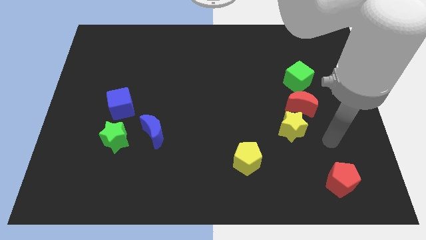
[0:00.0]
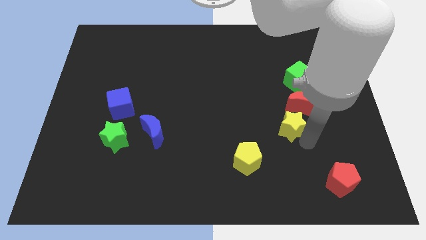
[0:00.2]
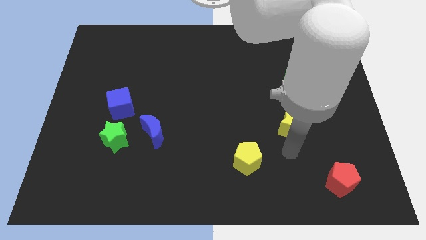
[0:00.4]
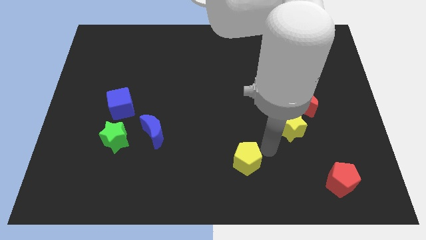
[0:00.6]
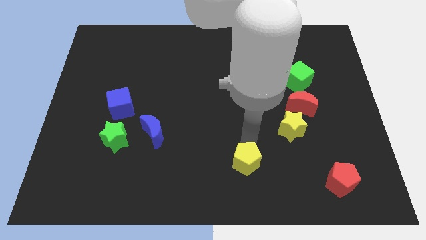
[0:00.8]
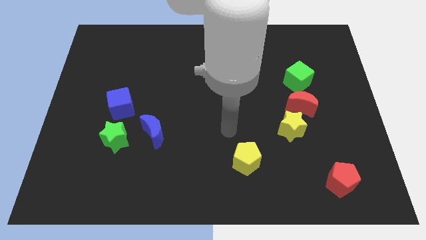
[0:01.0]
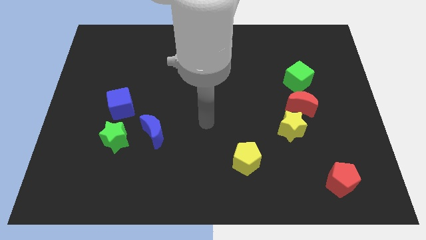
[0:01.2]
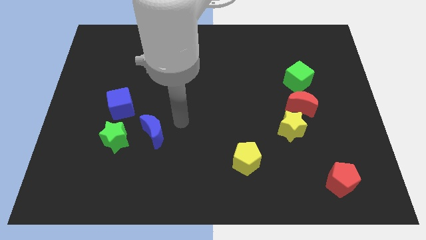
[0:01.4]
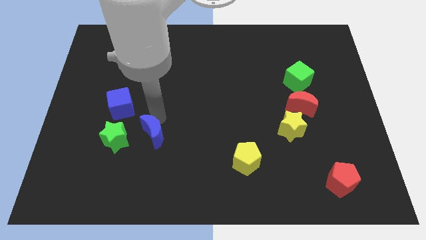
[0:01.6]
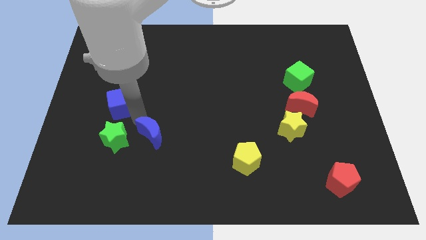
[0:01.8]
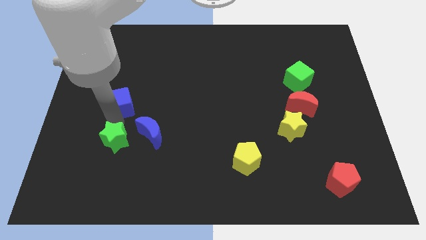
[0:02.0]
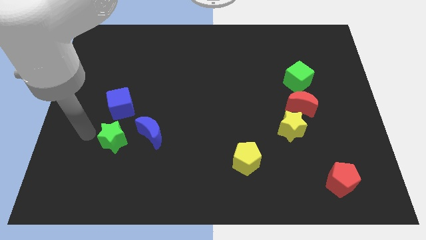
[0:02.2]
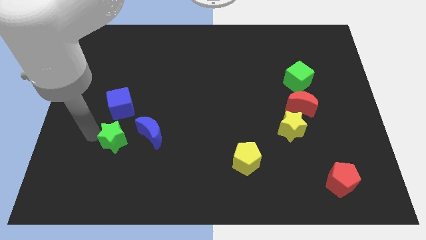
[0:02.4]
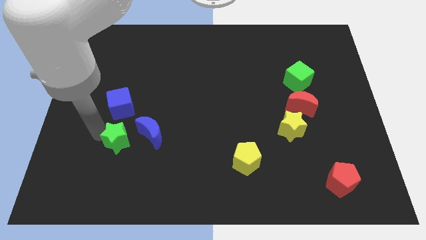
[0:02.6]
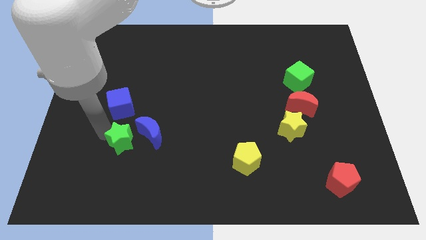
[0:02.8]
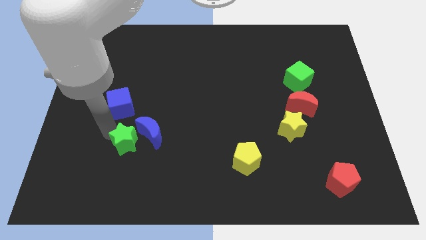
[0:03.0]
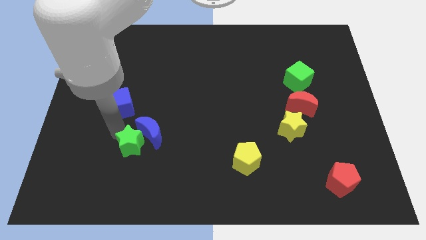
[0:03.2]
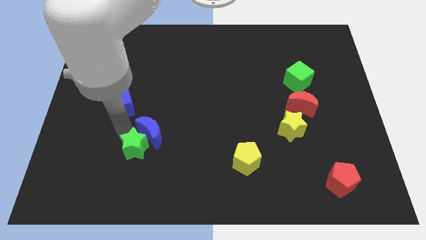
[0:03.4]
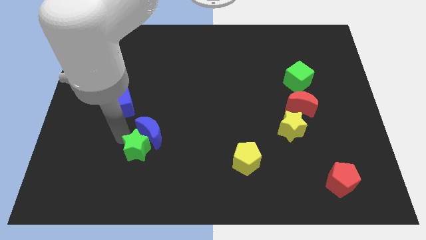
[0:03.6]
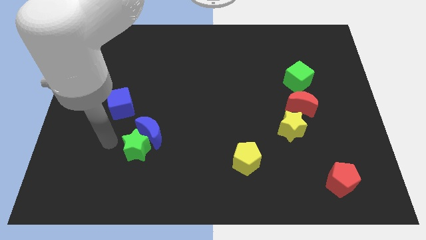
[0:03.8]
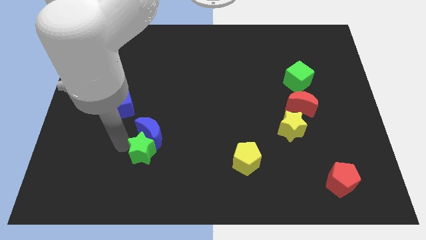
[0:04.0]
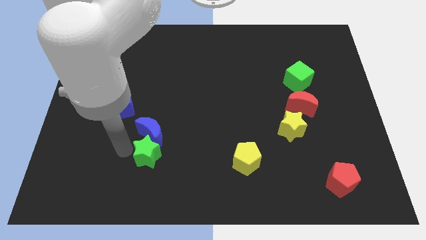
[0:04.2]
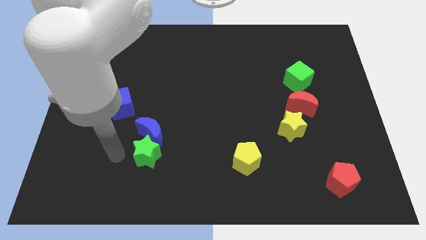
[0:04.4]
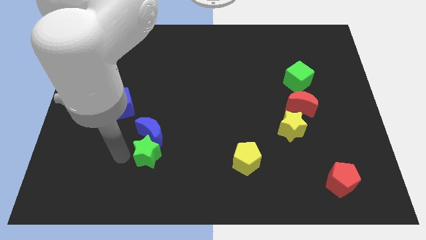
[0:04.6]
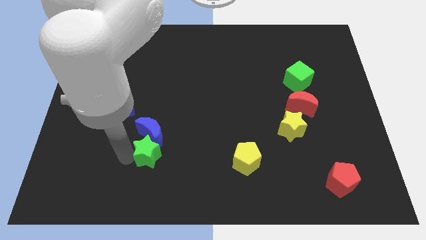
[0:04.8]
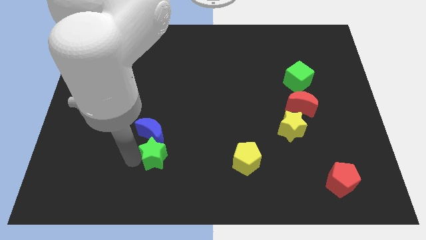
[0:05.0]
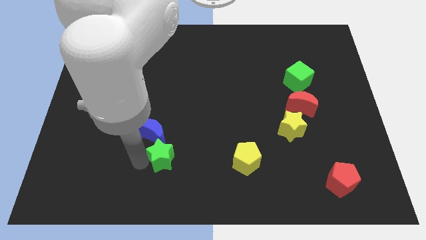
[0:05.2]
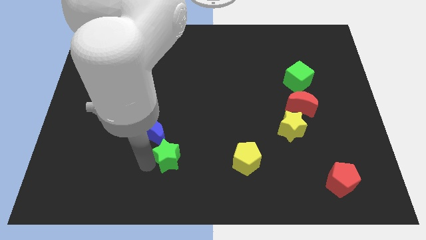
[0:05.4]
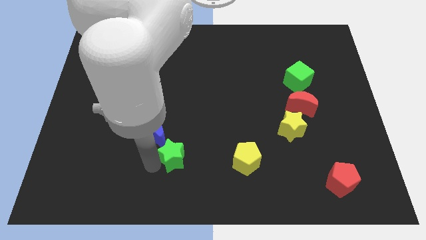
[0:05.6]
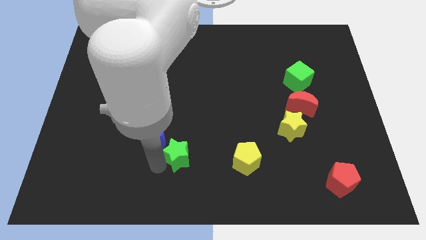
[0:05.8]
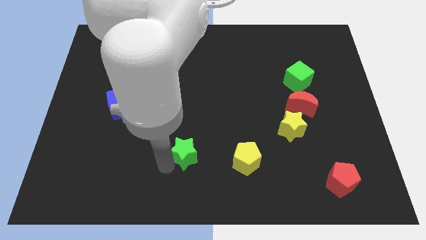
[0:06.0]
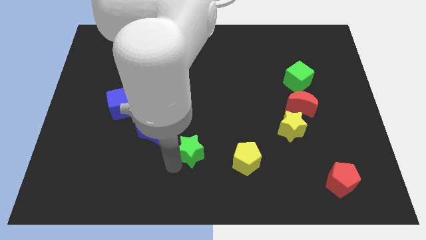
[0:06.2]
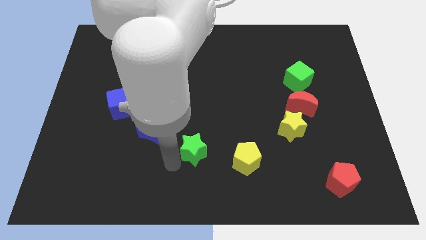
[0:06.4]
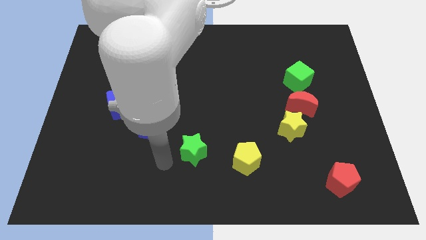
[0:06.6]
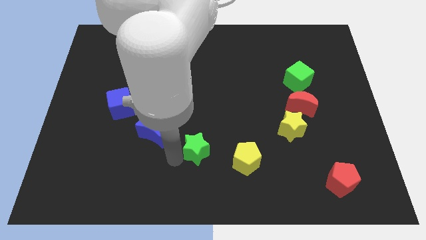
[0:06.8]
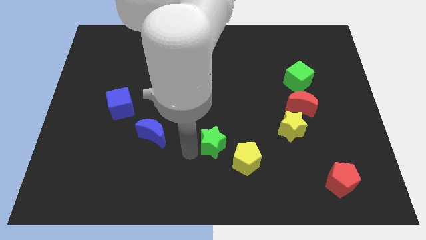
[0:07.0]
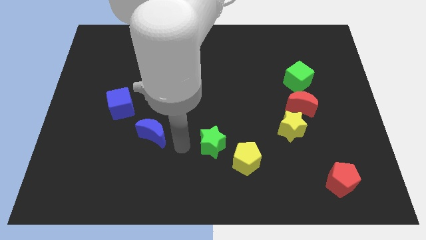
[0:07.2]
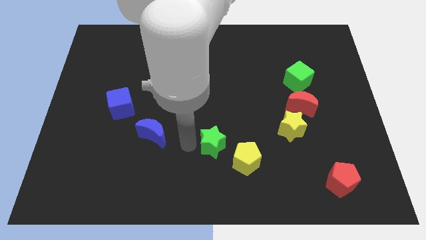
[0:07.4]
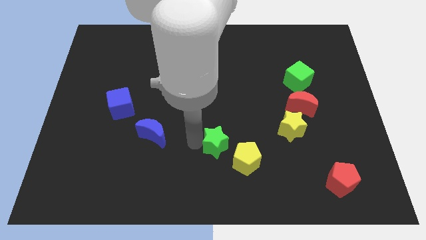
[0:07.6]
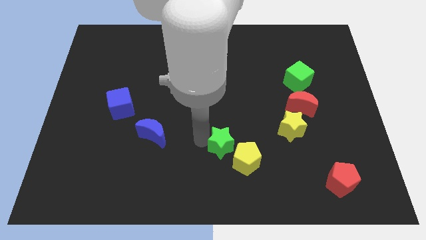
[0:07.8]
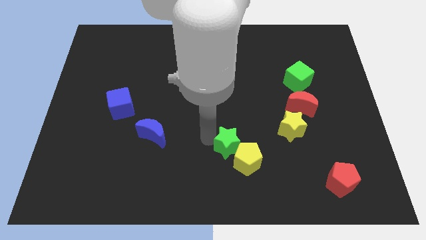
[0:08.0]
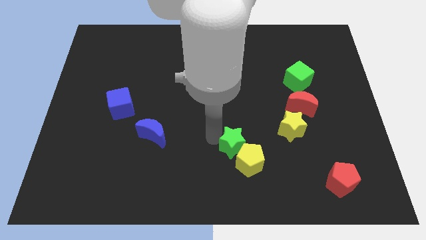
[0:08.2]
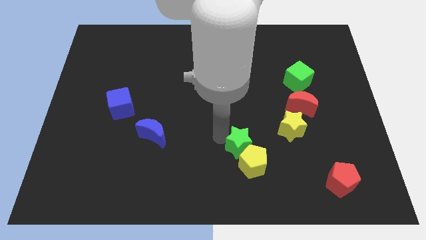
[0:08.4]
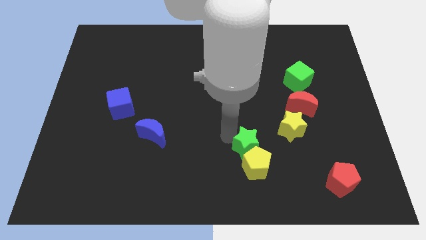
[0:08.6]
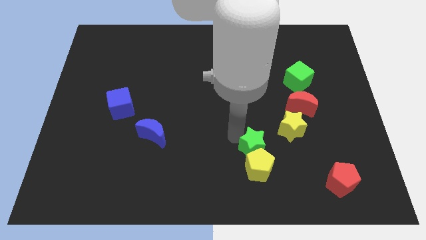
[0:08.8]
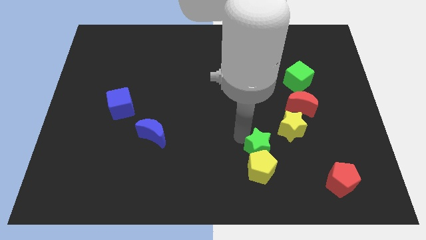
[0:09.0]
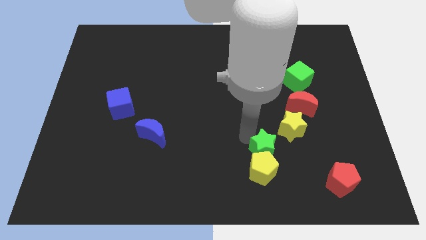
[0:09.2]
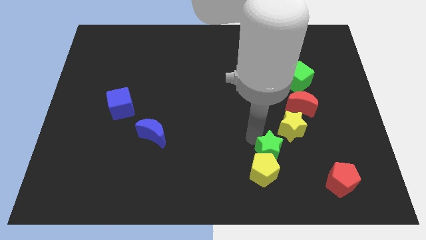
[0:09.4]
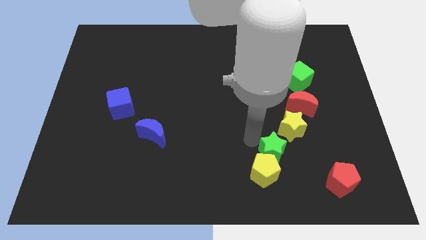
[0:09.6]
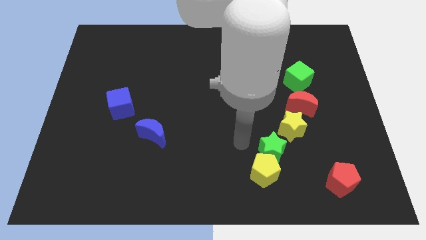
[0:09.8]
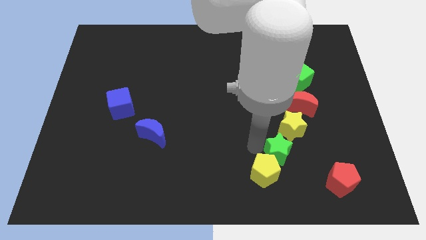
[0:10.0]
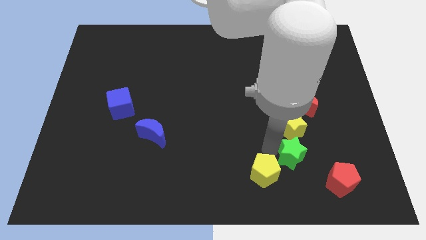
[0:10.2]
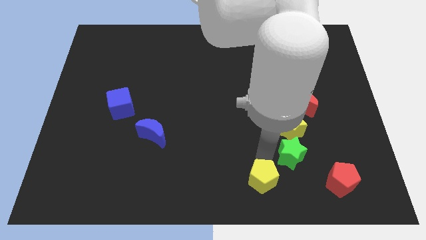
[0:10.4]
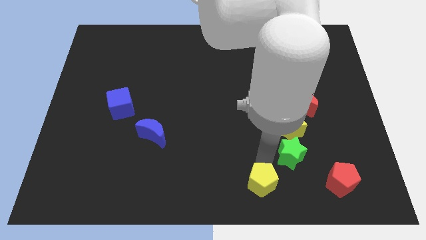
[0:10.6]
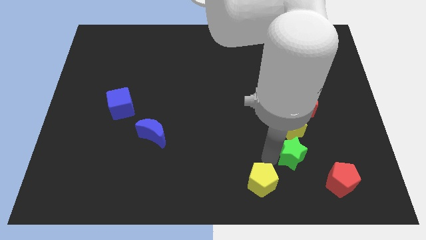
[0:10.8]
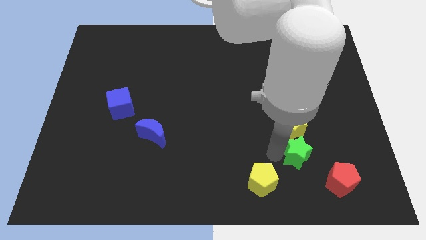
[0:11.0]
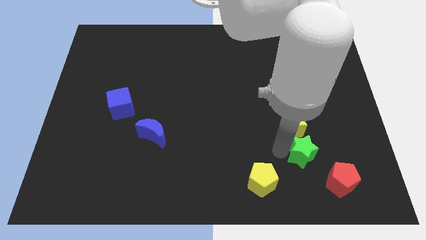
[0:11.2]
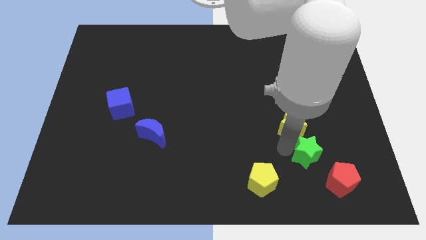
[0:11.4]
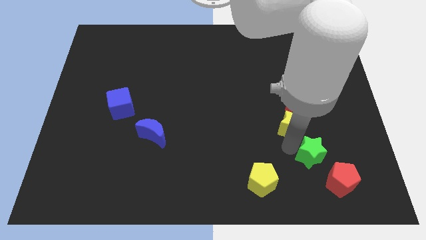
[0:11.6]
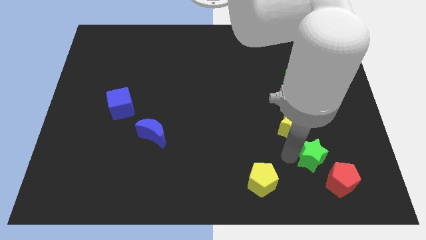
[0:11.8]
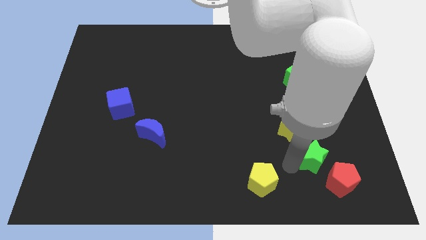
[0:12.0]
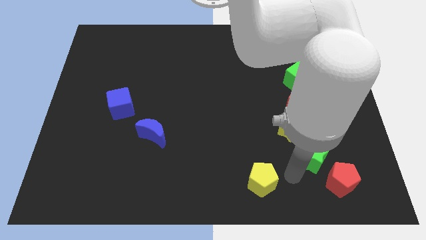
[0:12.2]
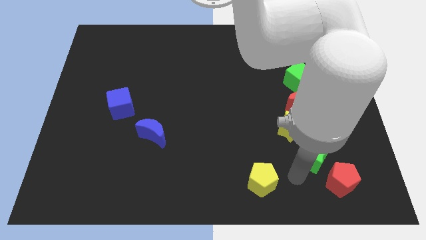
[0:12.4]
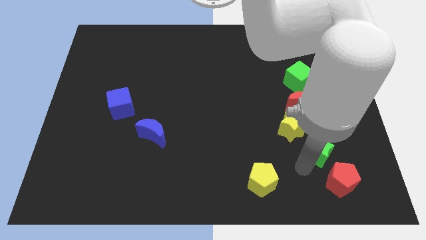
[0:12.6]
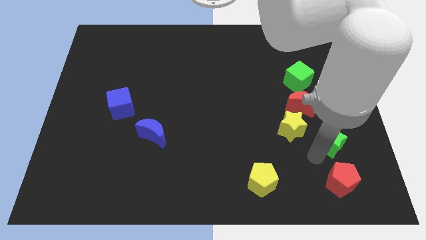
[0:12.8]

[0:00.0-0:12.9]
slide the green star diagonally down and to the right of the red moon

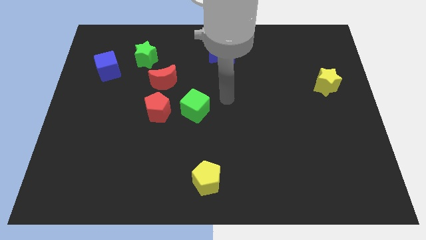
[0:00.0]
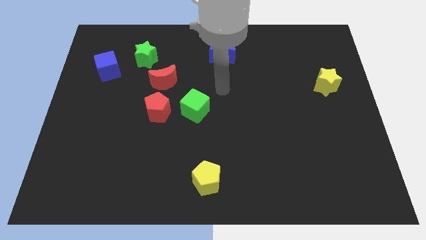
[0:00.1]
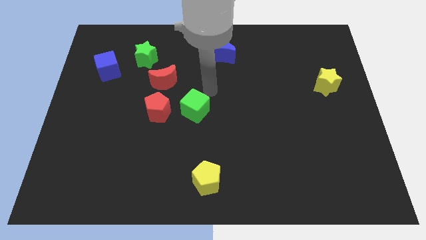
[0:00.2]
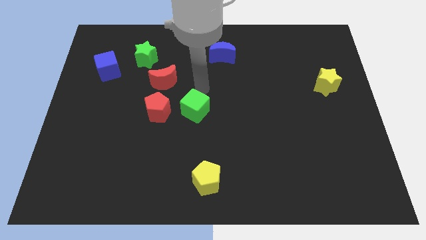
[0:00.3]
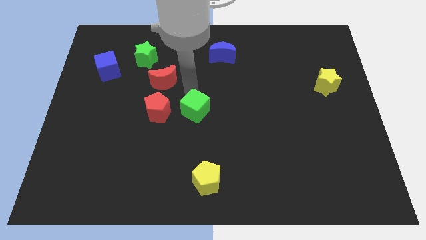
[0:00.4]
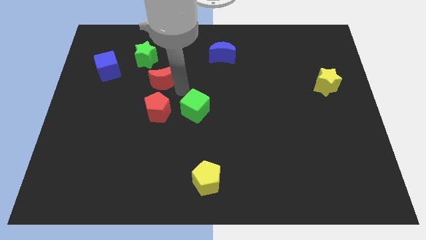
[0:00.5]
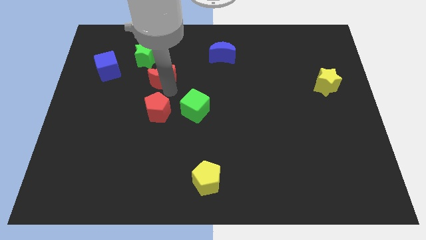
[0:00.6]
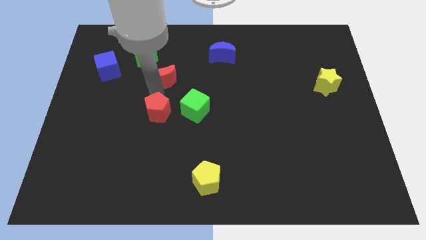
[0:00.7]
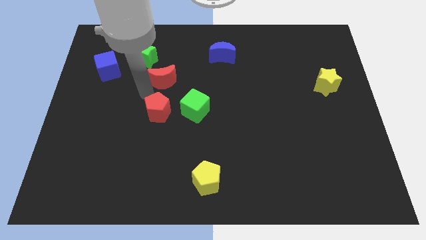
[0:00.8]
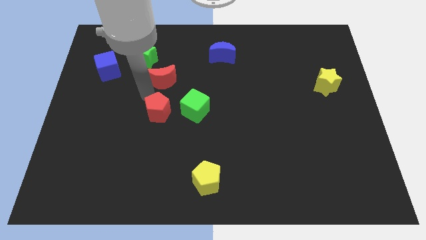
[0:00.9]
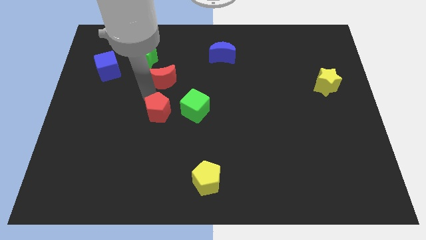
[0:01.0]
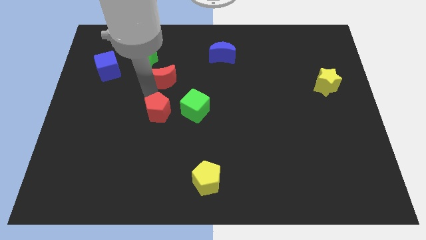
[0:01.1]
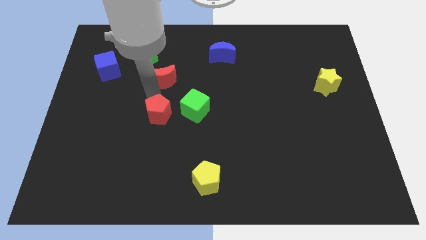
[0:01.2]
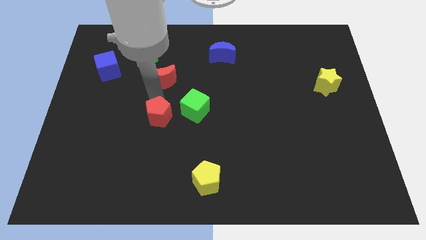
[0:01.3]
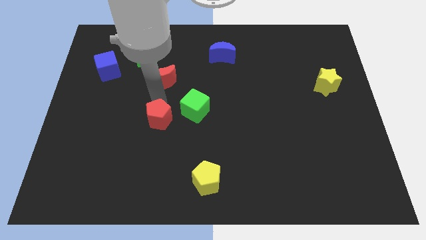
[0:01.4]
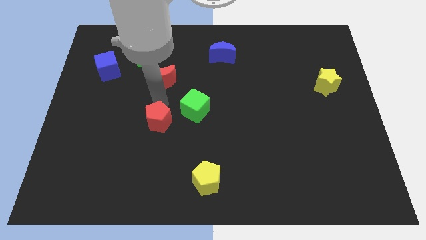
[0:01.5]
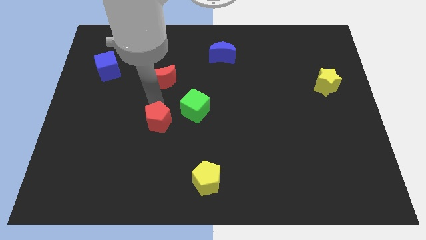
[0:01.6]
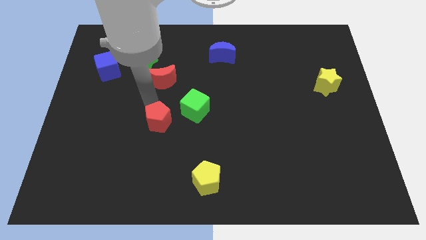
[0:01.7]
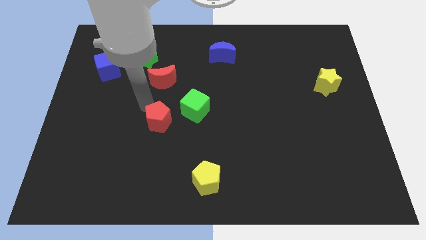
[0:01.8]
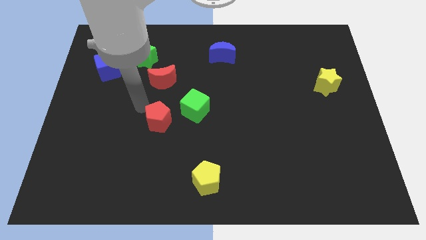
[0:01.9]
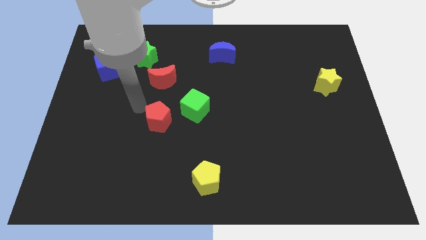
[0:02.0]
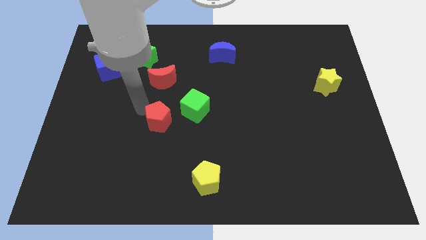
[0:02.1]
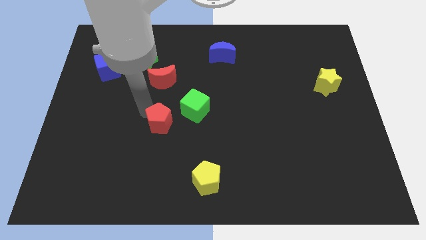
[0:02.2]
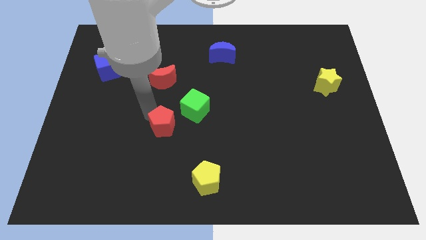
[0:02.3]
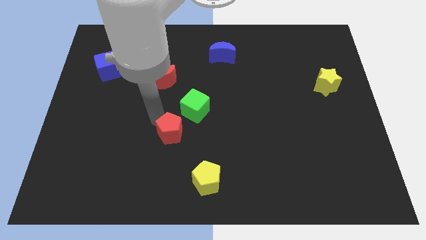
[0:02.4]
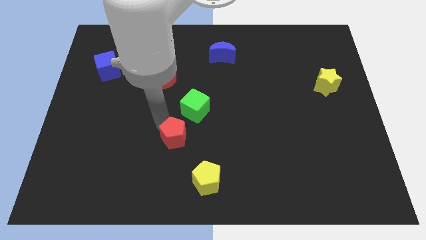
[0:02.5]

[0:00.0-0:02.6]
put the red pentagon to the bottom of the green cube
